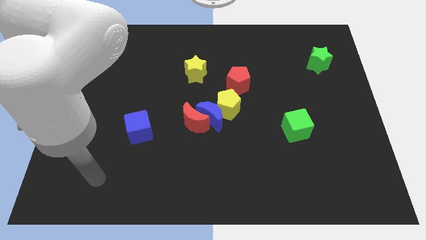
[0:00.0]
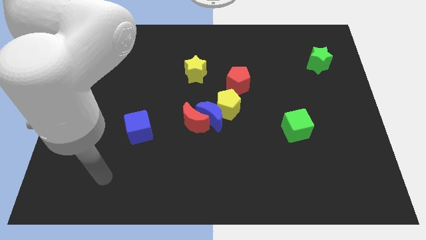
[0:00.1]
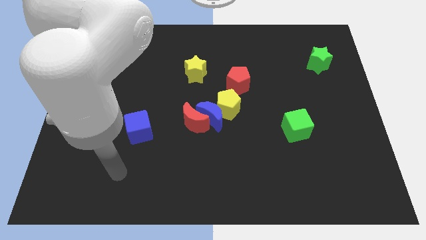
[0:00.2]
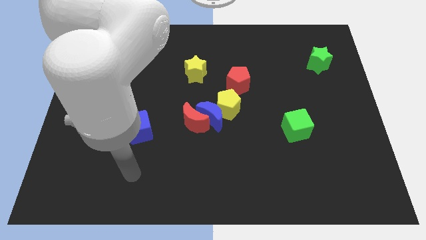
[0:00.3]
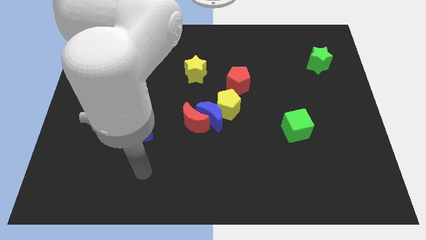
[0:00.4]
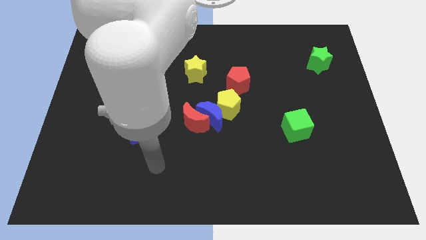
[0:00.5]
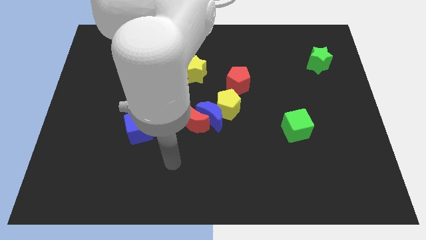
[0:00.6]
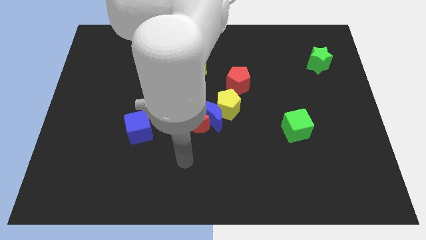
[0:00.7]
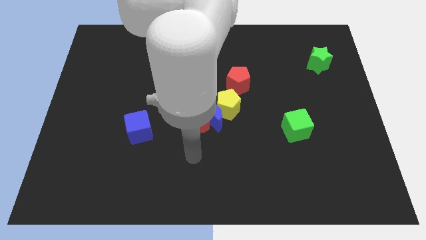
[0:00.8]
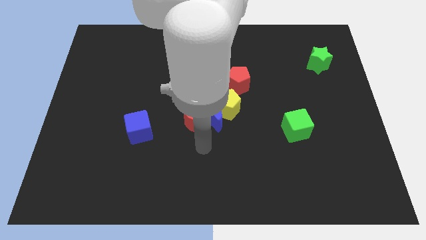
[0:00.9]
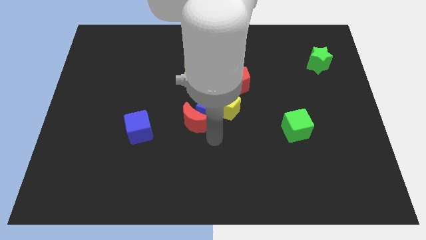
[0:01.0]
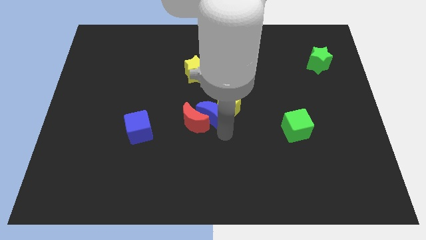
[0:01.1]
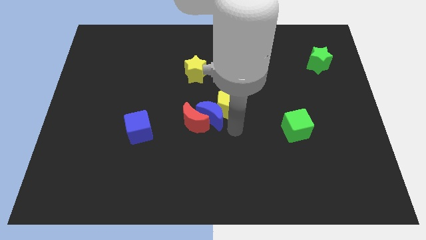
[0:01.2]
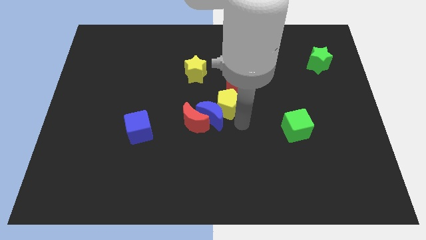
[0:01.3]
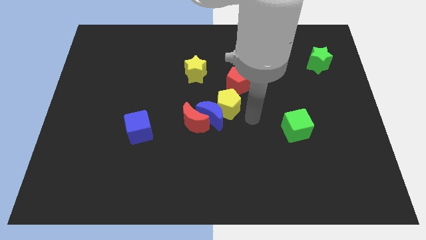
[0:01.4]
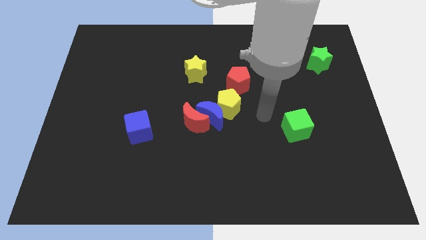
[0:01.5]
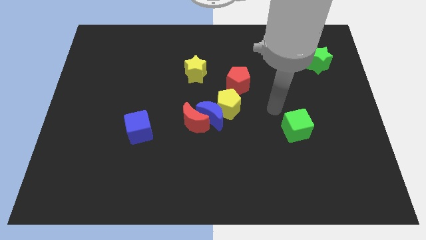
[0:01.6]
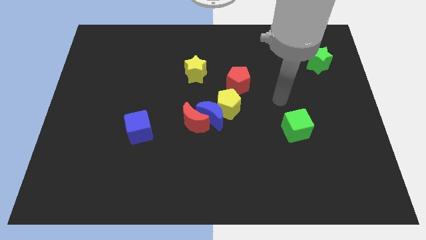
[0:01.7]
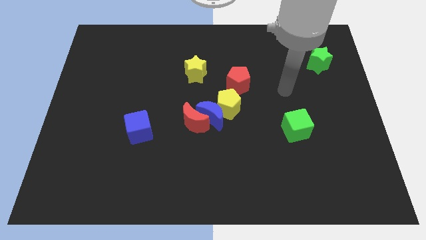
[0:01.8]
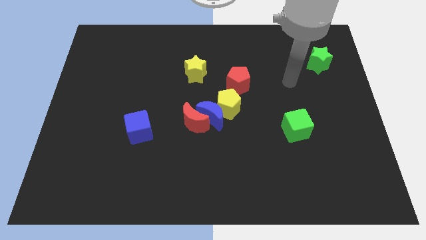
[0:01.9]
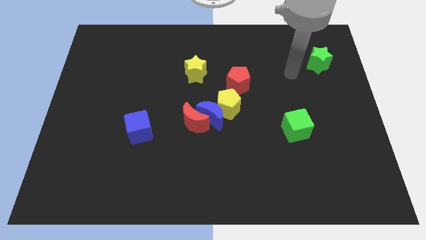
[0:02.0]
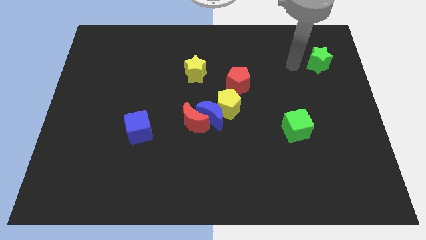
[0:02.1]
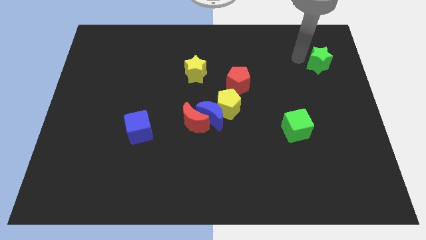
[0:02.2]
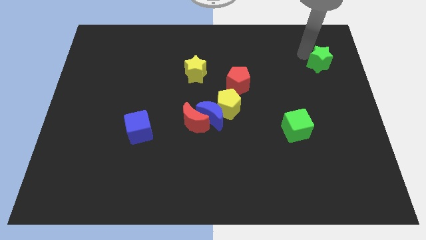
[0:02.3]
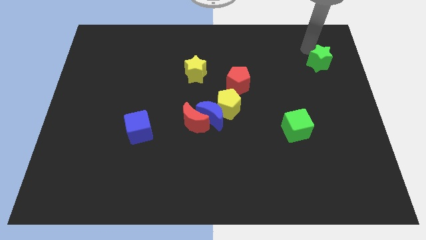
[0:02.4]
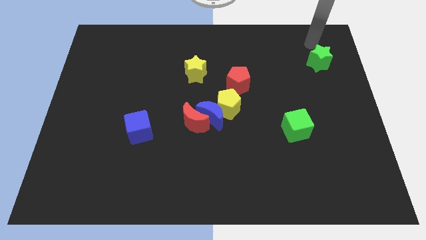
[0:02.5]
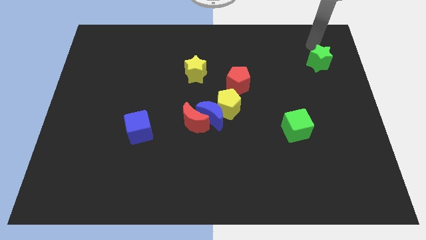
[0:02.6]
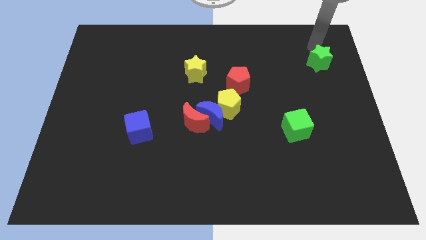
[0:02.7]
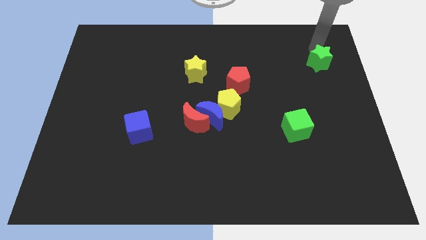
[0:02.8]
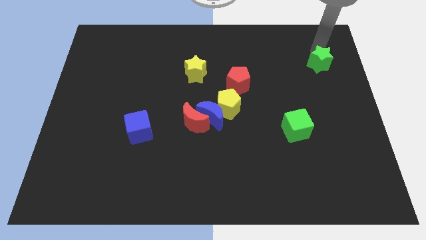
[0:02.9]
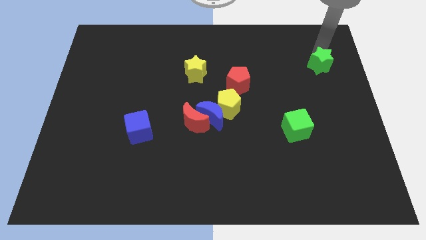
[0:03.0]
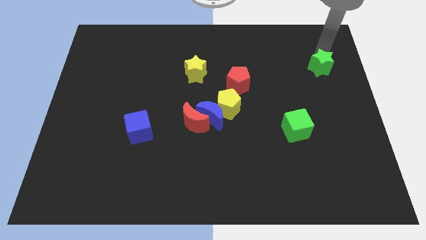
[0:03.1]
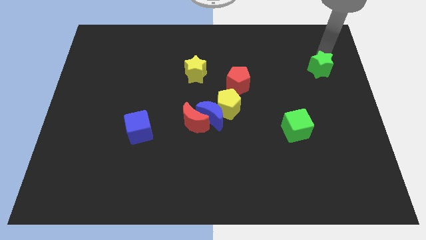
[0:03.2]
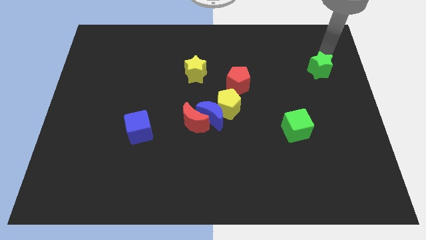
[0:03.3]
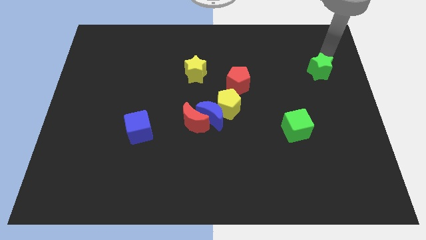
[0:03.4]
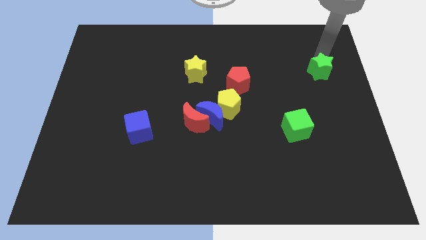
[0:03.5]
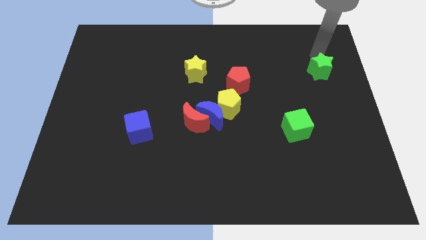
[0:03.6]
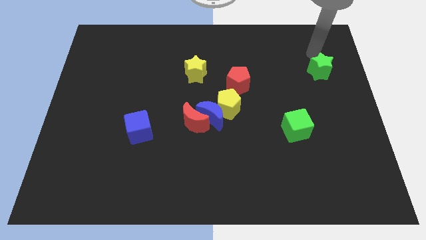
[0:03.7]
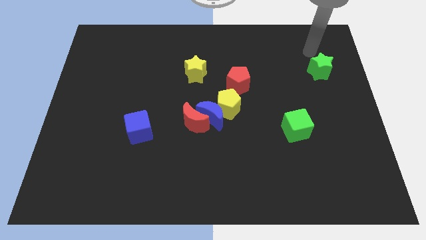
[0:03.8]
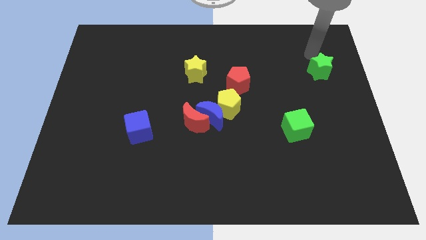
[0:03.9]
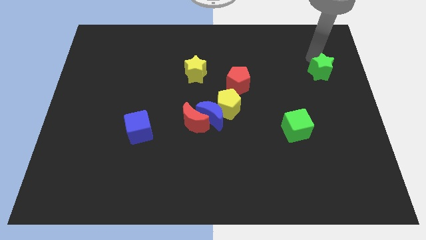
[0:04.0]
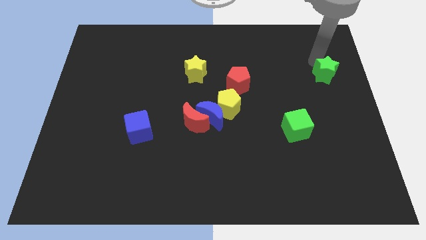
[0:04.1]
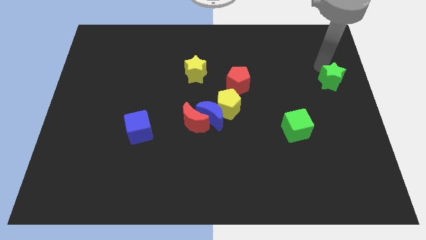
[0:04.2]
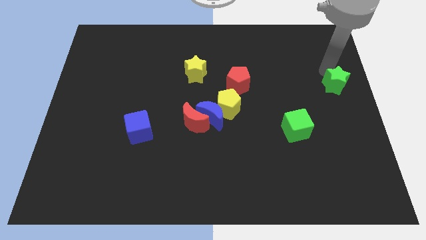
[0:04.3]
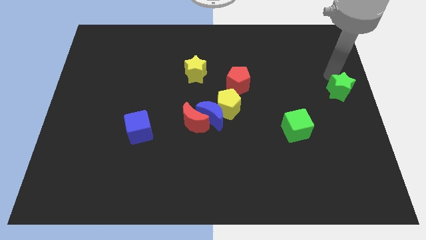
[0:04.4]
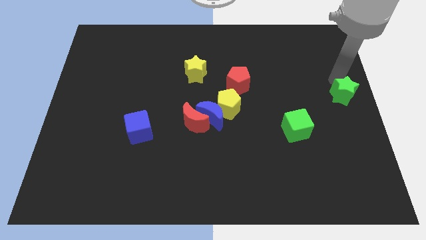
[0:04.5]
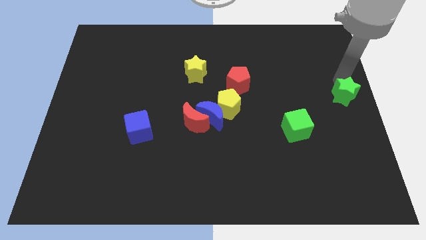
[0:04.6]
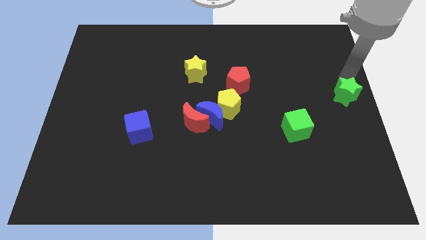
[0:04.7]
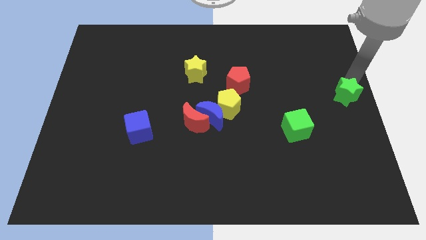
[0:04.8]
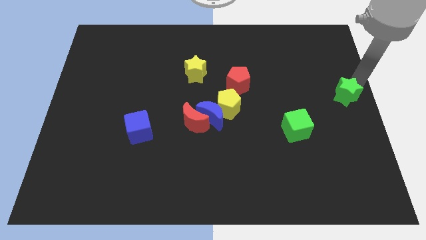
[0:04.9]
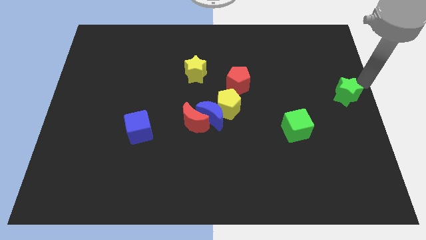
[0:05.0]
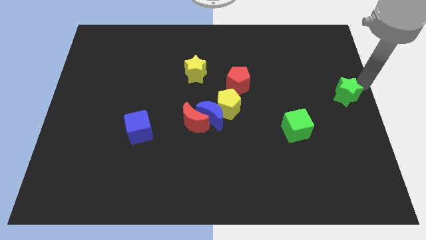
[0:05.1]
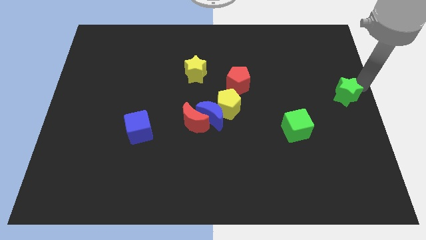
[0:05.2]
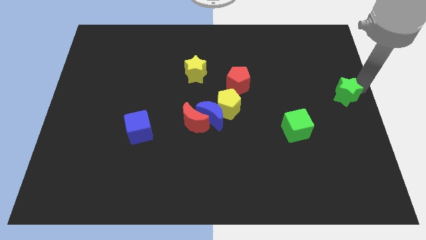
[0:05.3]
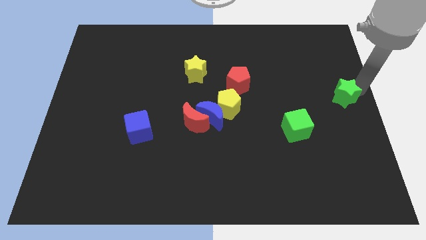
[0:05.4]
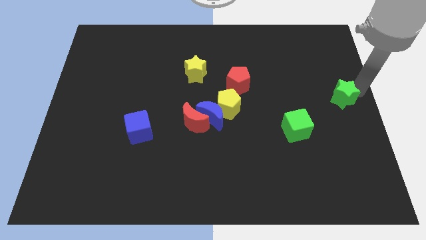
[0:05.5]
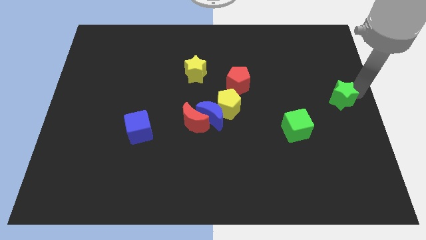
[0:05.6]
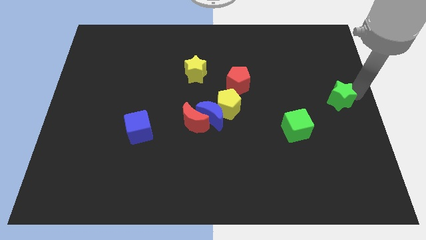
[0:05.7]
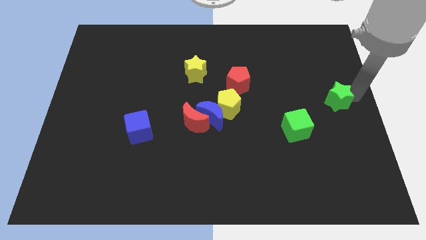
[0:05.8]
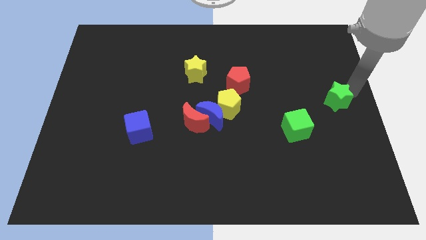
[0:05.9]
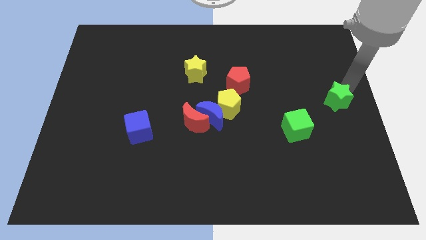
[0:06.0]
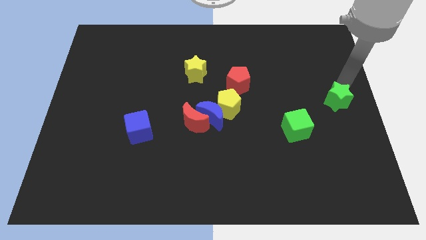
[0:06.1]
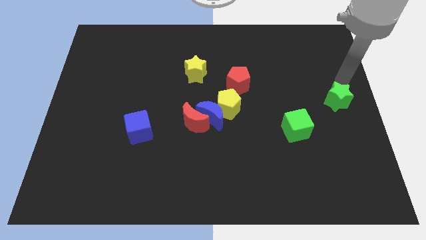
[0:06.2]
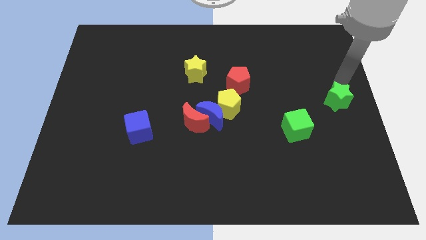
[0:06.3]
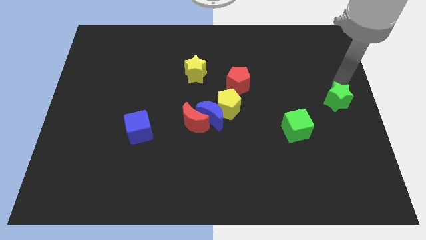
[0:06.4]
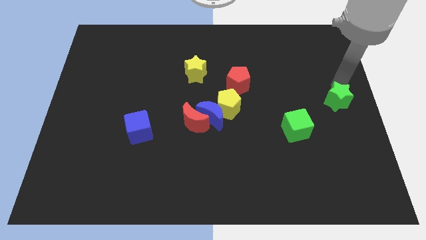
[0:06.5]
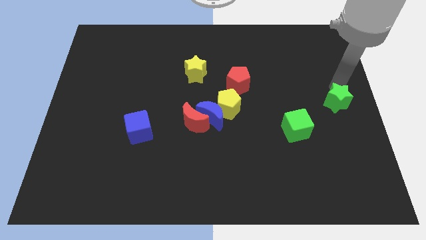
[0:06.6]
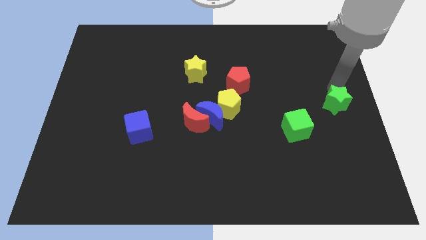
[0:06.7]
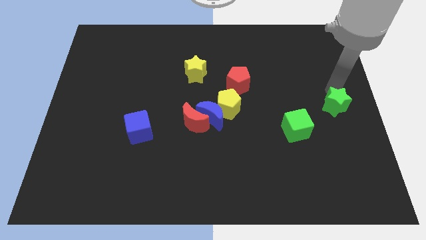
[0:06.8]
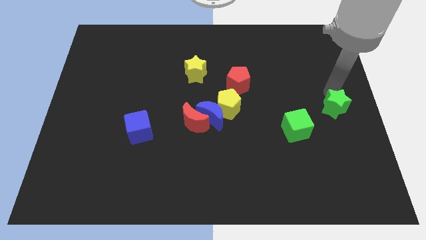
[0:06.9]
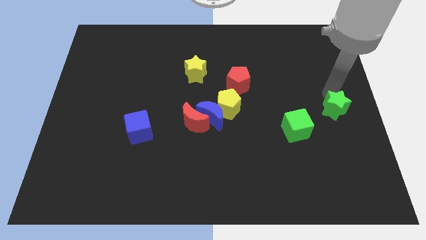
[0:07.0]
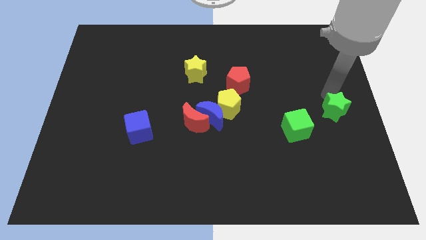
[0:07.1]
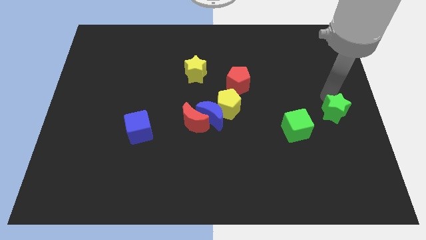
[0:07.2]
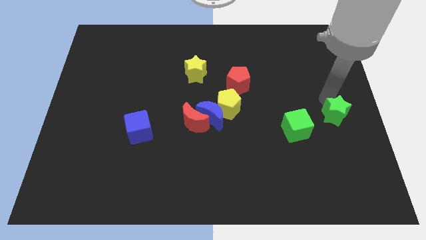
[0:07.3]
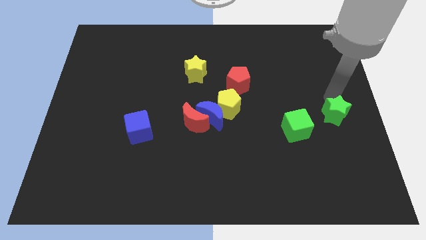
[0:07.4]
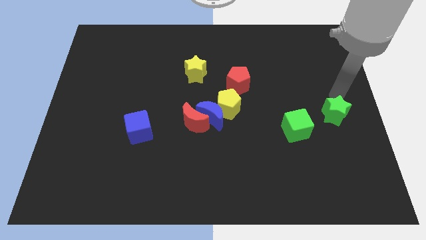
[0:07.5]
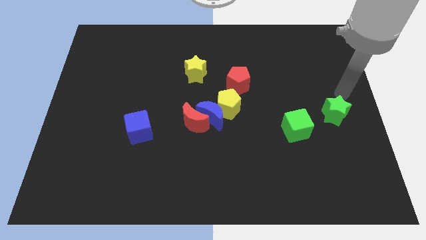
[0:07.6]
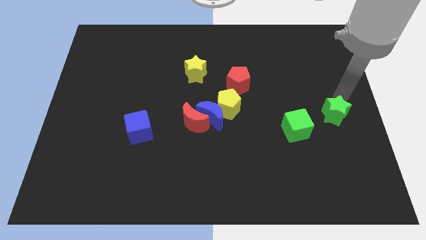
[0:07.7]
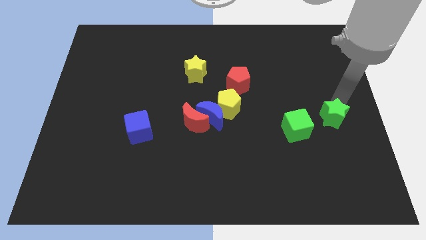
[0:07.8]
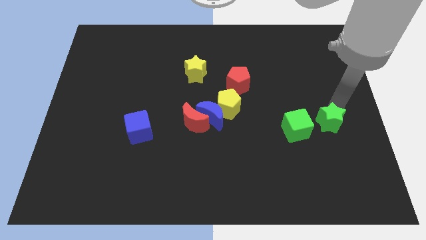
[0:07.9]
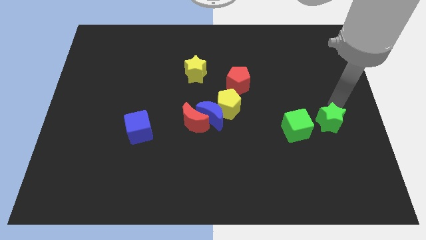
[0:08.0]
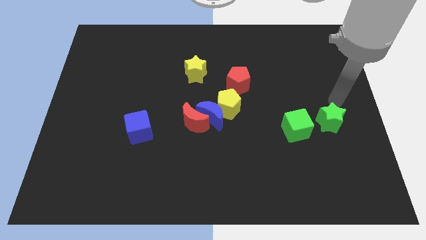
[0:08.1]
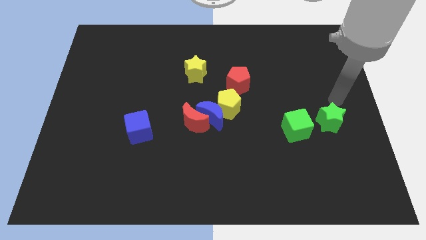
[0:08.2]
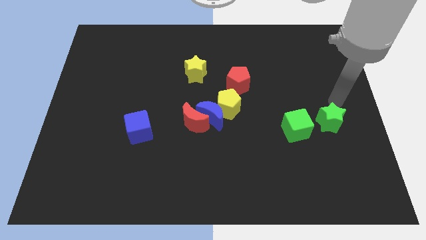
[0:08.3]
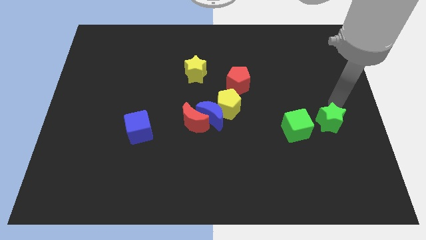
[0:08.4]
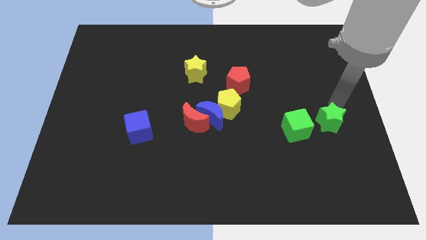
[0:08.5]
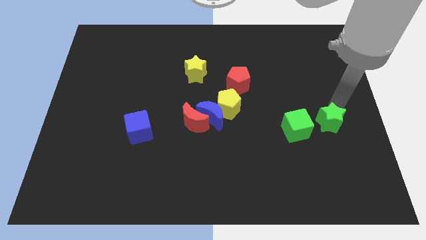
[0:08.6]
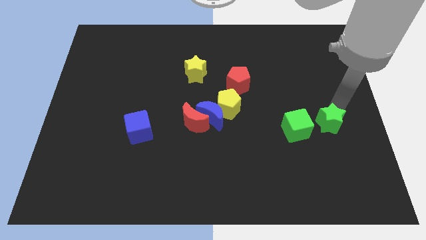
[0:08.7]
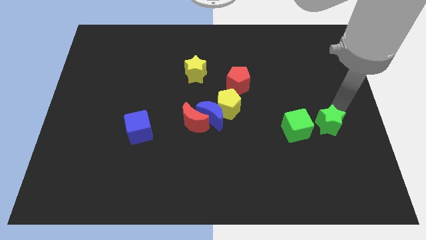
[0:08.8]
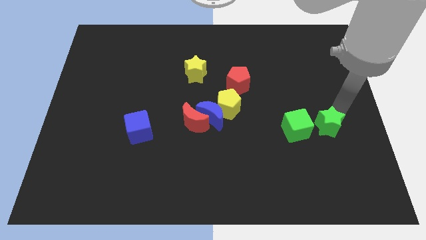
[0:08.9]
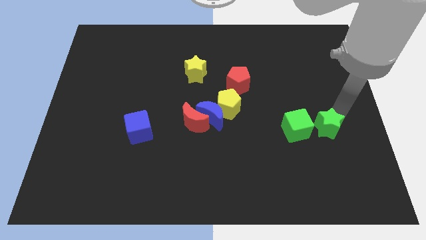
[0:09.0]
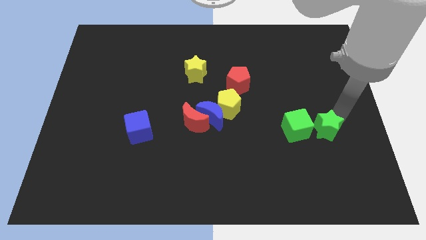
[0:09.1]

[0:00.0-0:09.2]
put the green star diagonally down and to the right of the green cube
